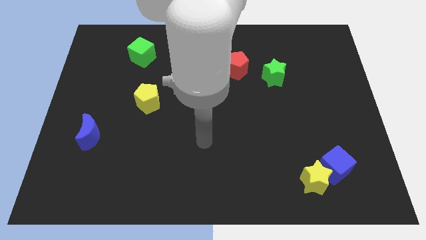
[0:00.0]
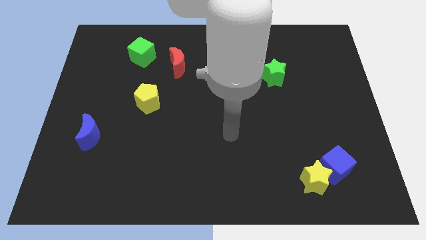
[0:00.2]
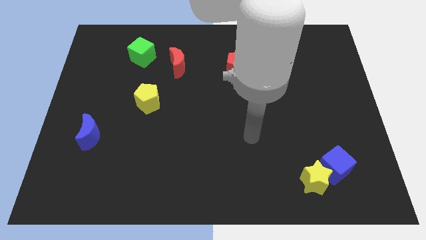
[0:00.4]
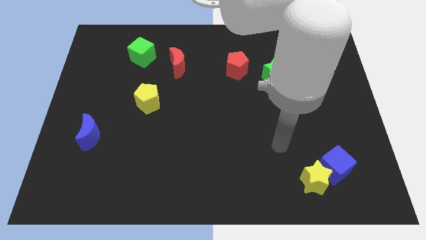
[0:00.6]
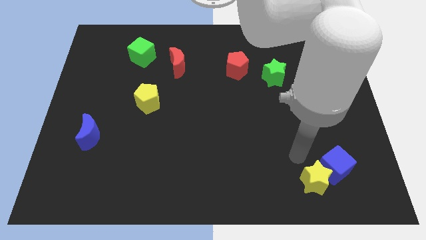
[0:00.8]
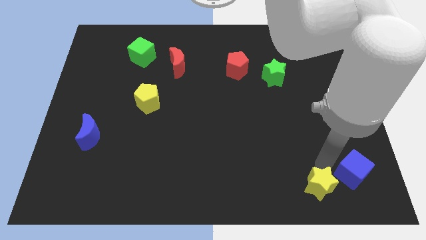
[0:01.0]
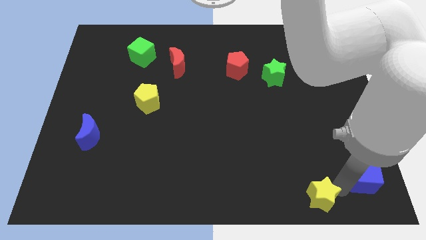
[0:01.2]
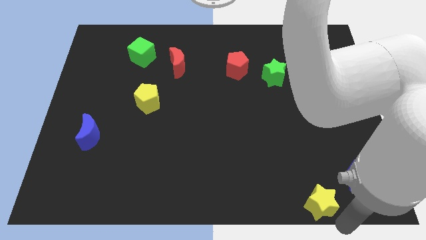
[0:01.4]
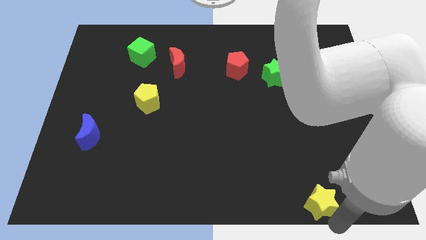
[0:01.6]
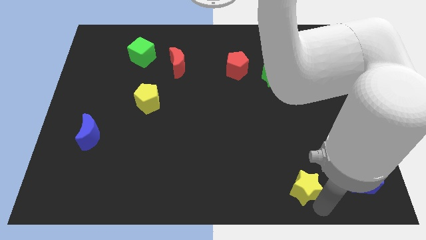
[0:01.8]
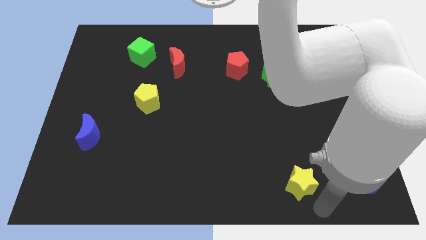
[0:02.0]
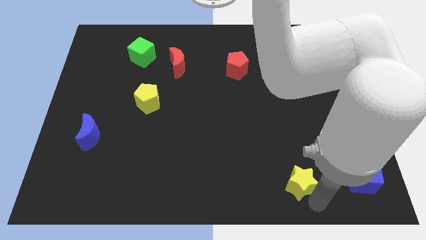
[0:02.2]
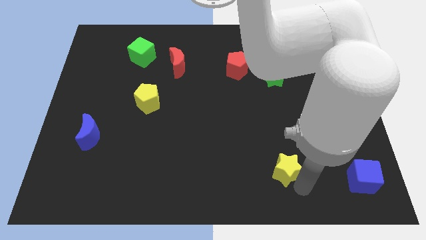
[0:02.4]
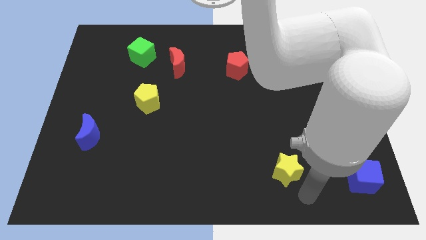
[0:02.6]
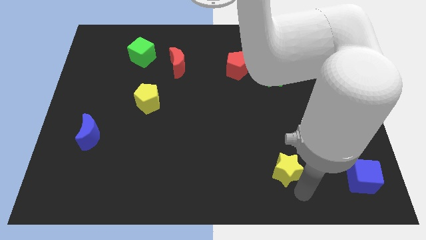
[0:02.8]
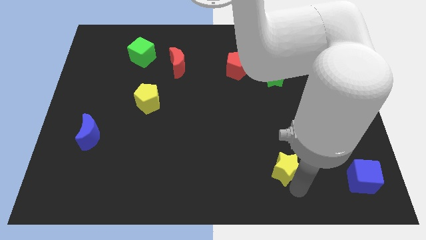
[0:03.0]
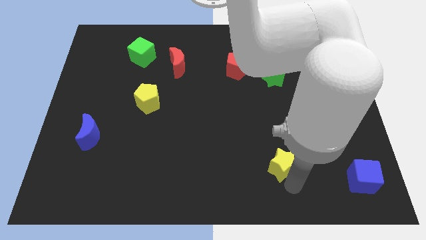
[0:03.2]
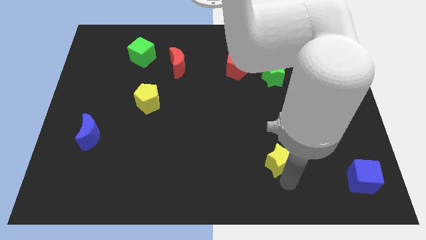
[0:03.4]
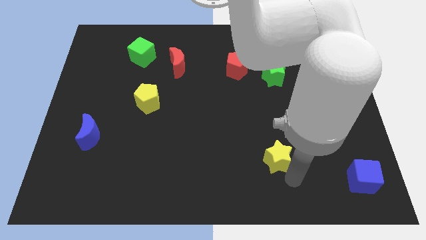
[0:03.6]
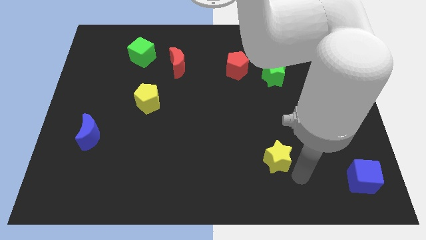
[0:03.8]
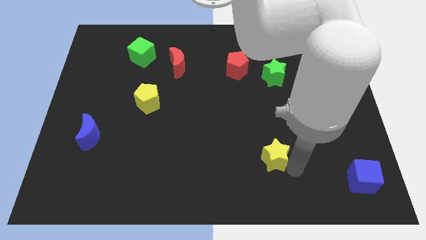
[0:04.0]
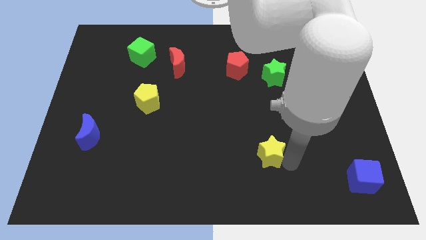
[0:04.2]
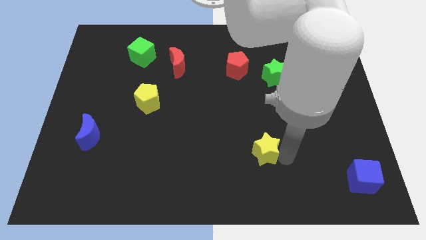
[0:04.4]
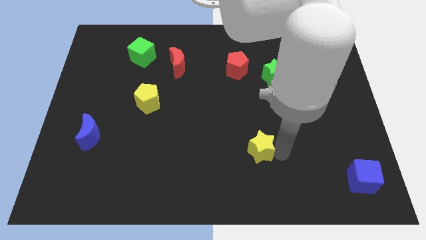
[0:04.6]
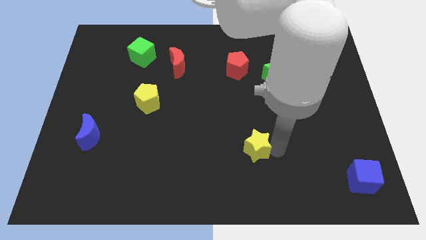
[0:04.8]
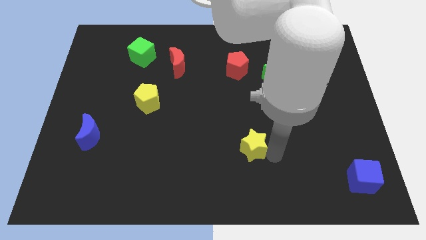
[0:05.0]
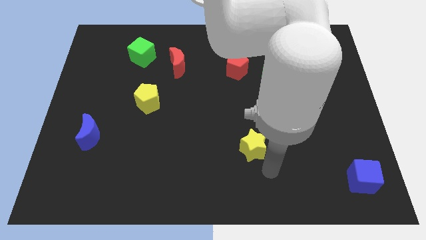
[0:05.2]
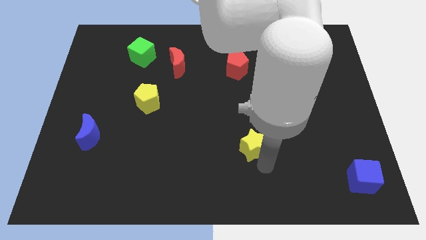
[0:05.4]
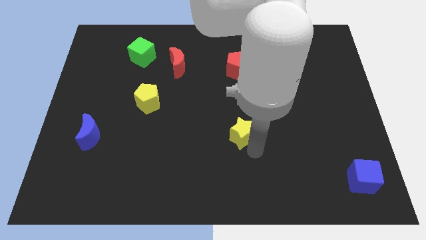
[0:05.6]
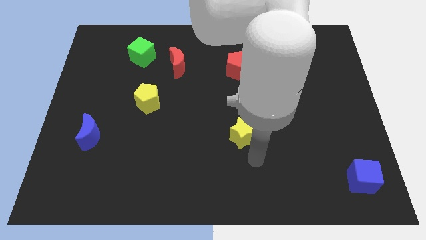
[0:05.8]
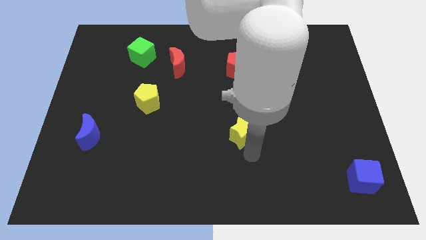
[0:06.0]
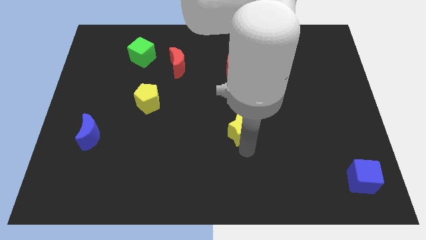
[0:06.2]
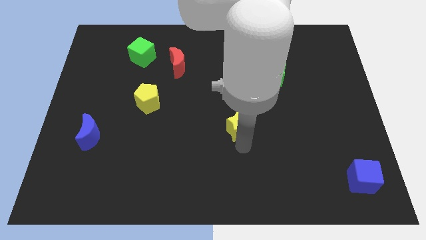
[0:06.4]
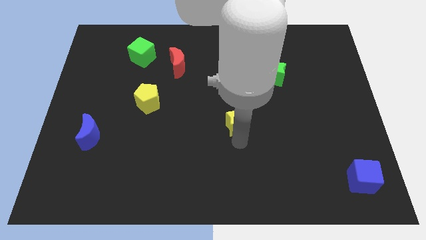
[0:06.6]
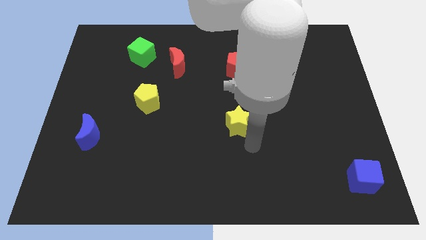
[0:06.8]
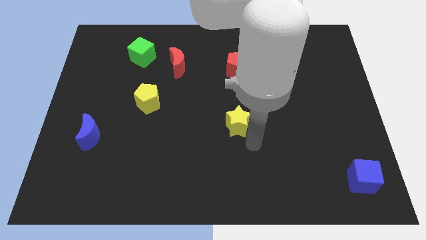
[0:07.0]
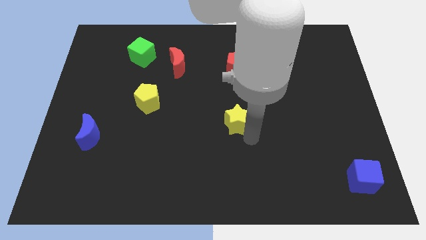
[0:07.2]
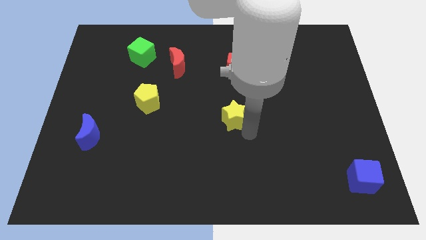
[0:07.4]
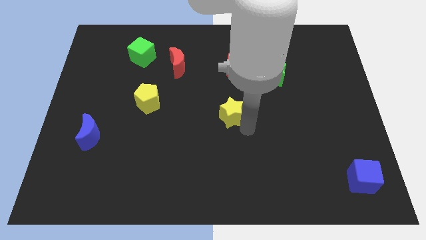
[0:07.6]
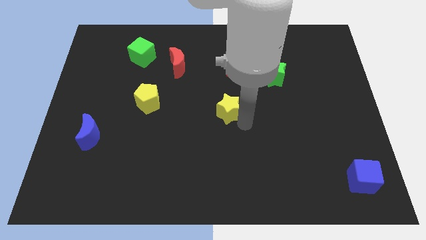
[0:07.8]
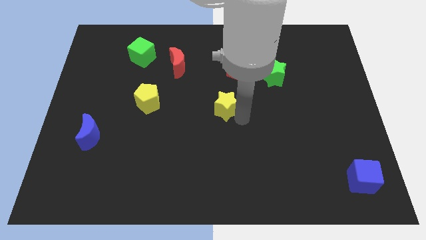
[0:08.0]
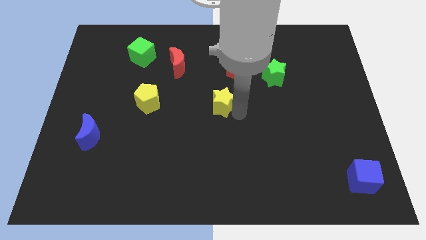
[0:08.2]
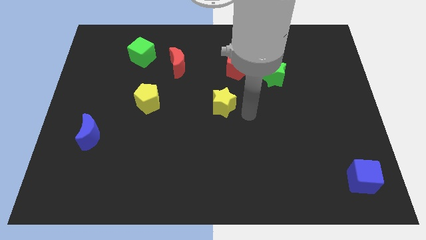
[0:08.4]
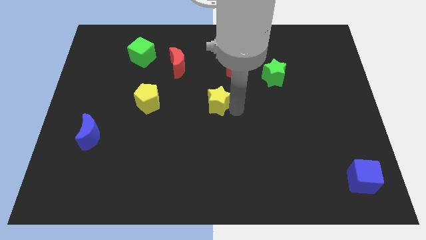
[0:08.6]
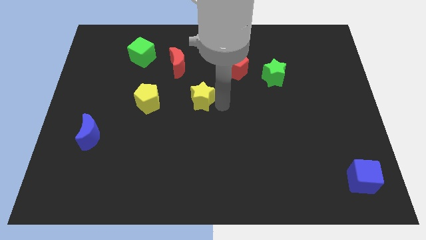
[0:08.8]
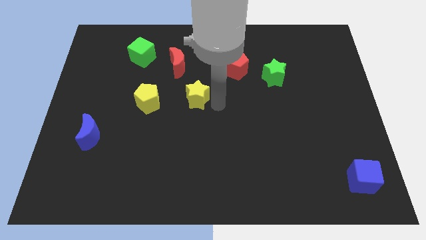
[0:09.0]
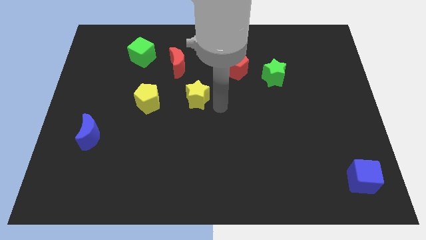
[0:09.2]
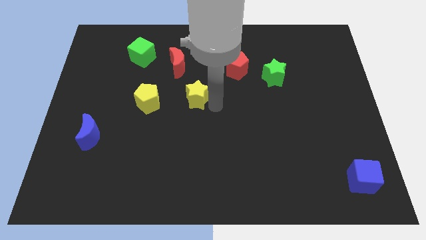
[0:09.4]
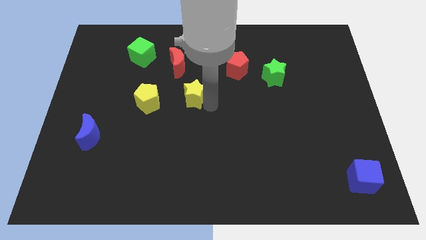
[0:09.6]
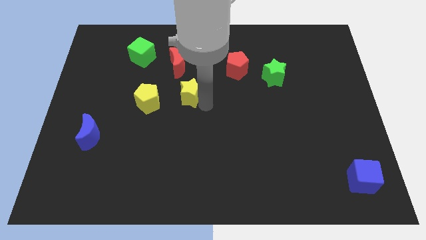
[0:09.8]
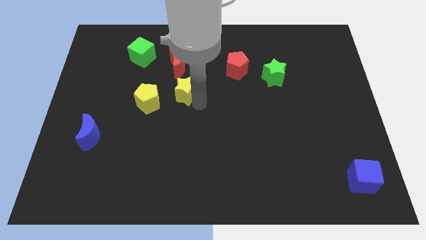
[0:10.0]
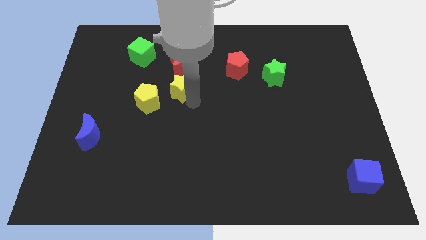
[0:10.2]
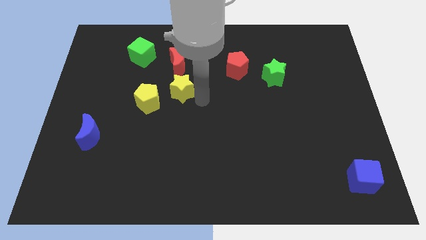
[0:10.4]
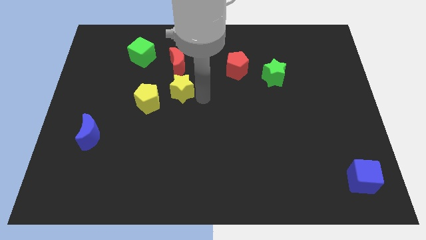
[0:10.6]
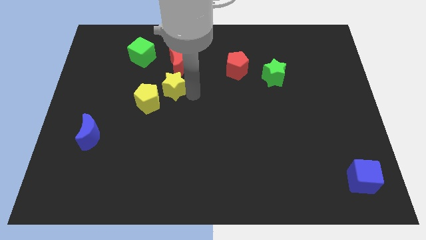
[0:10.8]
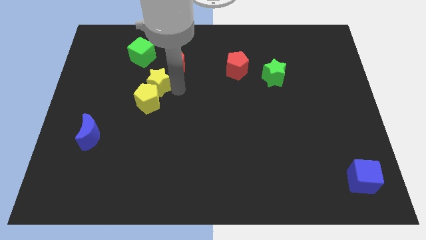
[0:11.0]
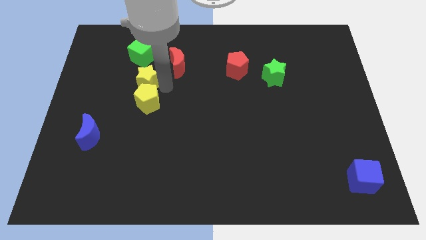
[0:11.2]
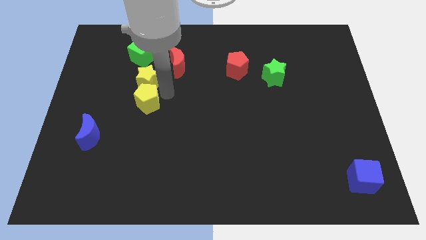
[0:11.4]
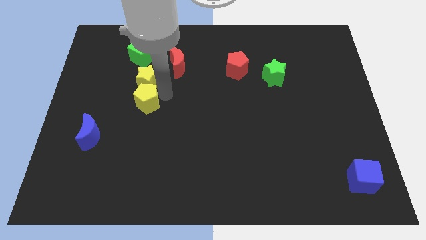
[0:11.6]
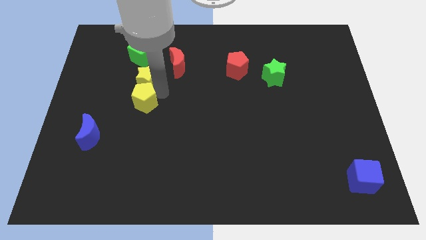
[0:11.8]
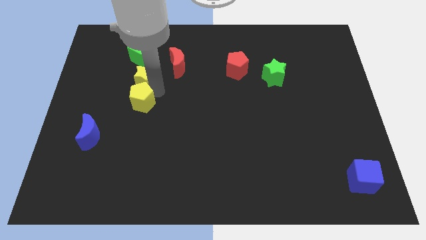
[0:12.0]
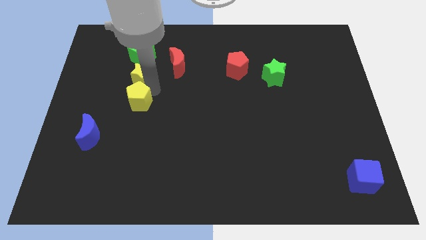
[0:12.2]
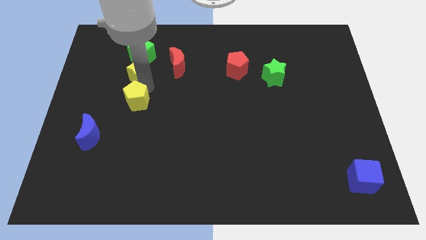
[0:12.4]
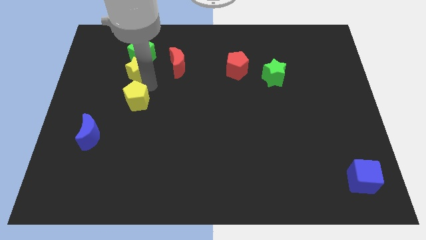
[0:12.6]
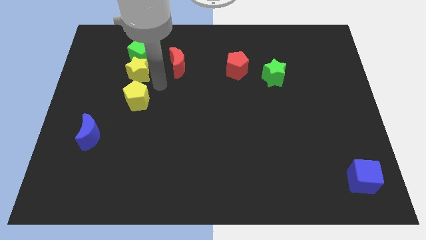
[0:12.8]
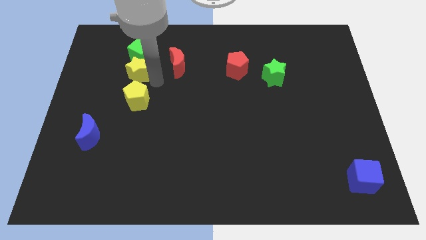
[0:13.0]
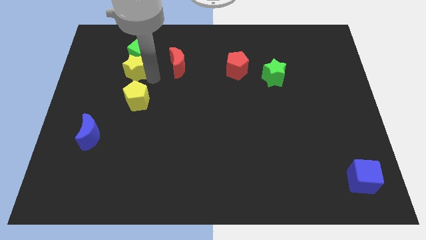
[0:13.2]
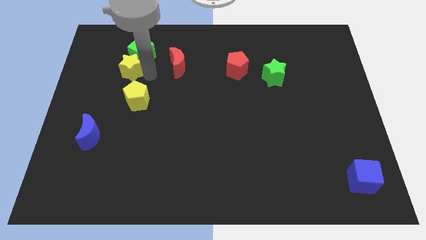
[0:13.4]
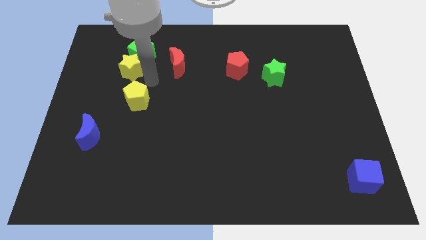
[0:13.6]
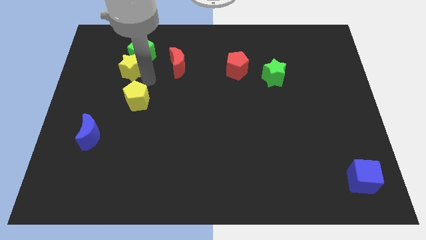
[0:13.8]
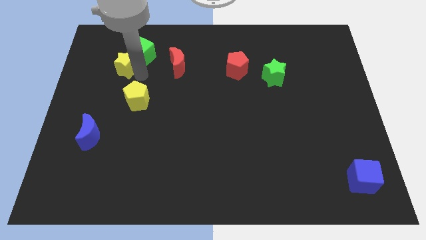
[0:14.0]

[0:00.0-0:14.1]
push the yellow star just left of the green cube
